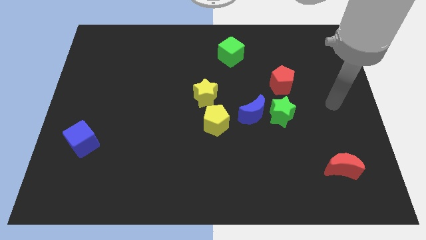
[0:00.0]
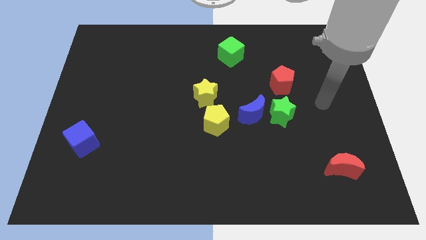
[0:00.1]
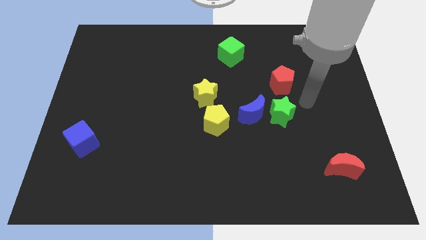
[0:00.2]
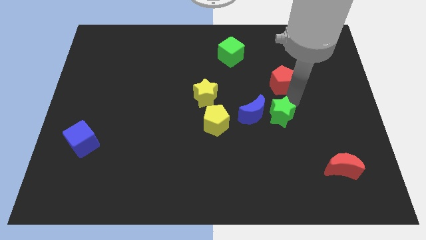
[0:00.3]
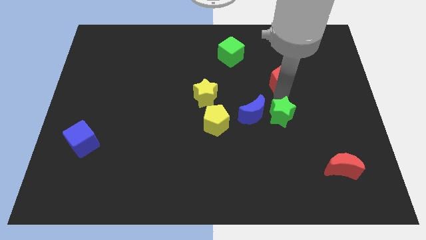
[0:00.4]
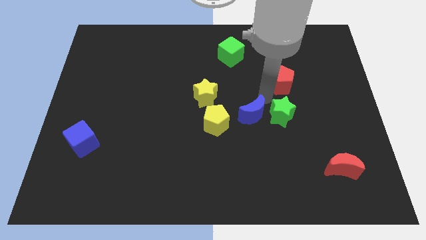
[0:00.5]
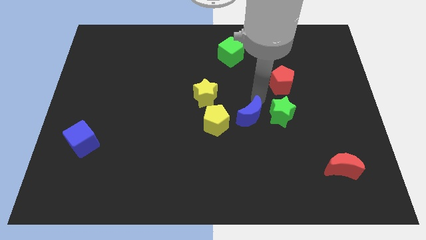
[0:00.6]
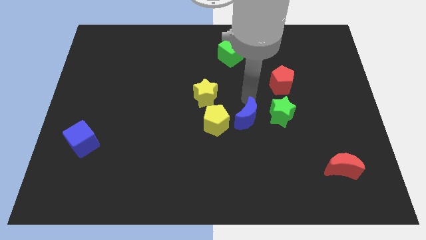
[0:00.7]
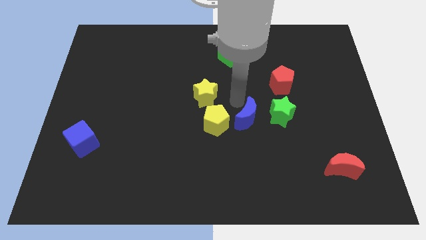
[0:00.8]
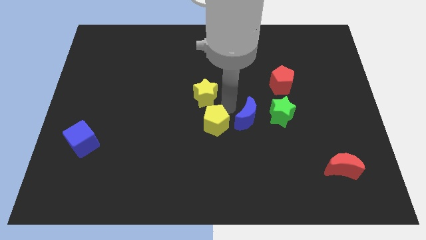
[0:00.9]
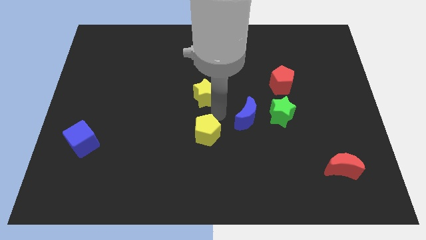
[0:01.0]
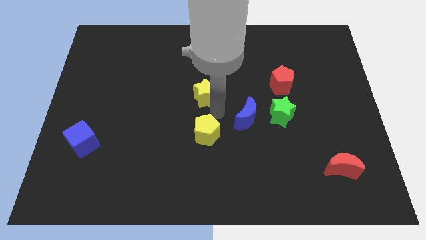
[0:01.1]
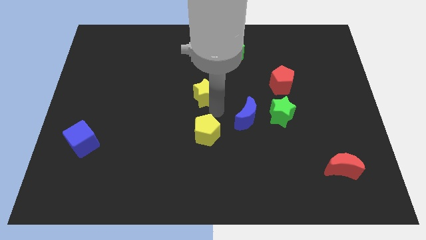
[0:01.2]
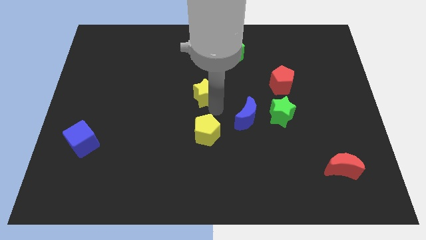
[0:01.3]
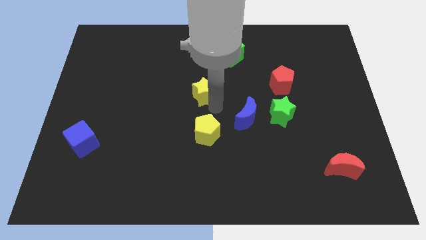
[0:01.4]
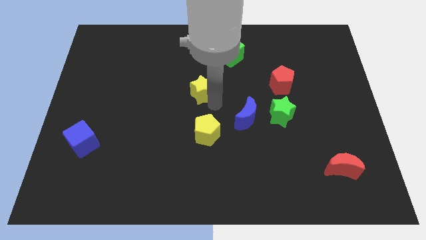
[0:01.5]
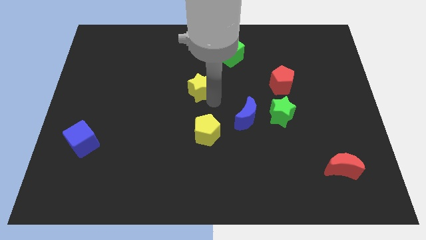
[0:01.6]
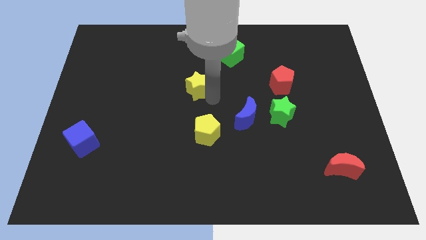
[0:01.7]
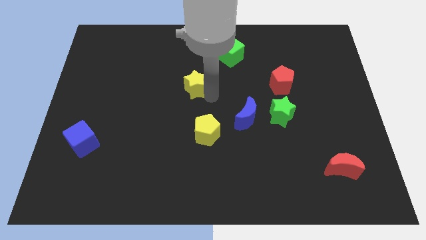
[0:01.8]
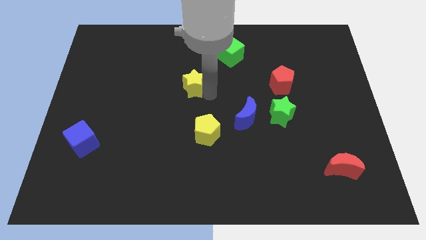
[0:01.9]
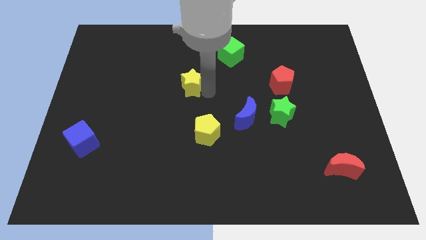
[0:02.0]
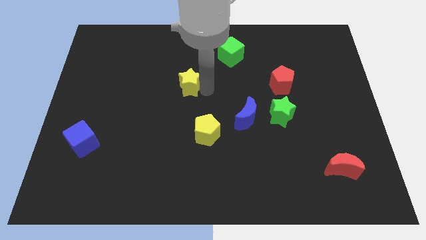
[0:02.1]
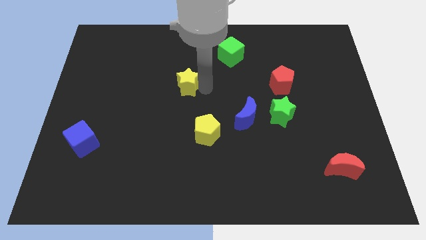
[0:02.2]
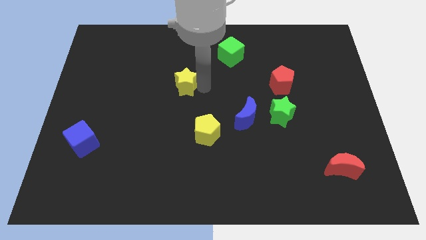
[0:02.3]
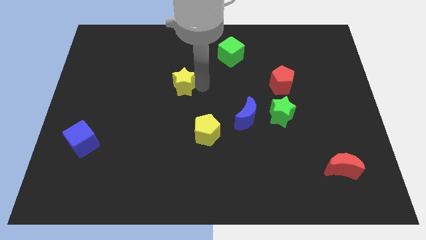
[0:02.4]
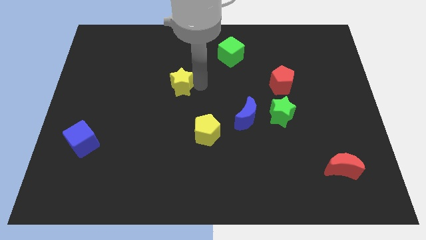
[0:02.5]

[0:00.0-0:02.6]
push the yellow star somewhat diagonally up and to the left

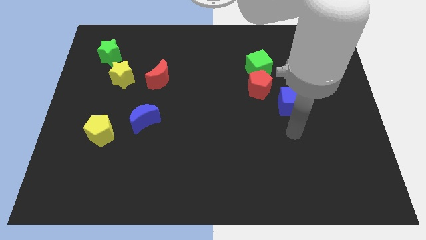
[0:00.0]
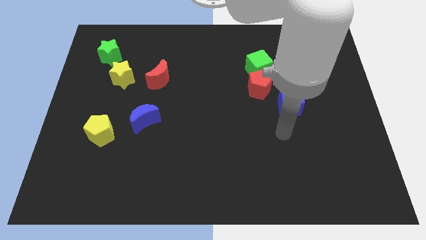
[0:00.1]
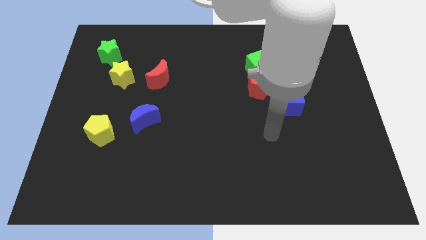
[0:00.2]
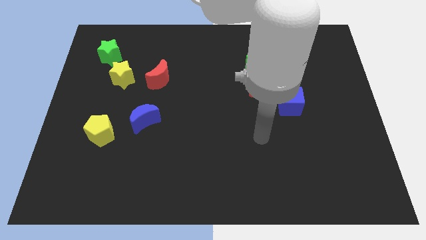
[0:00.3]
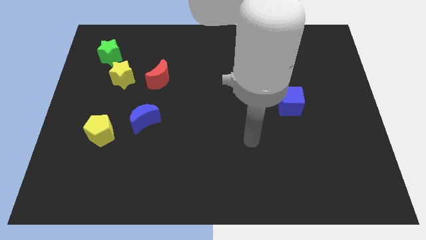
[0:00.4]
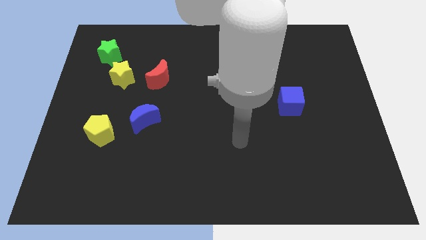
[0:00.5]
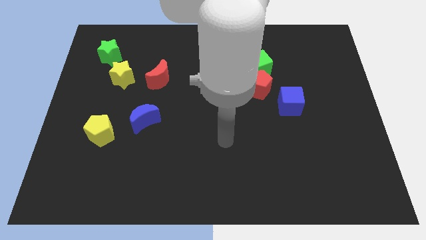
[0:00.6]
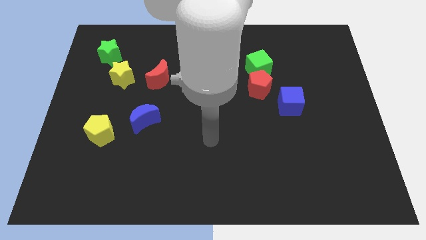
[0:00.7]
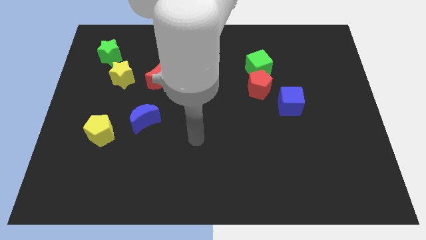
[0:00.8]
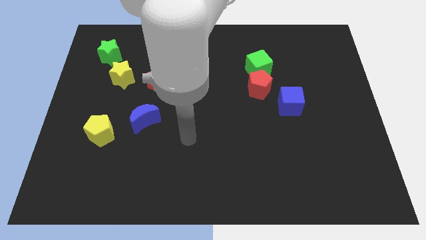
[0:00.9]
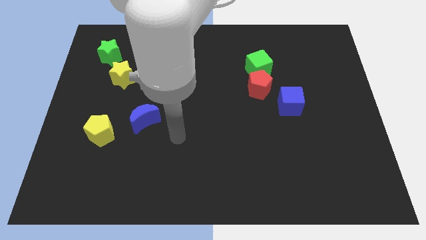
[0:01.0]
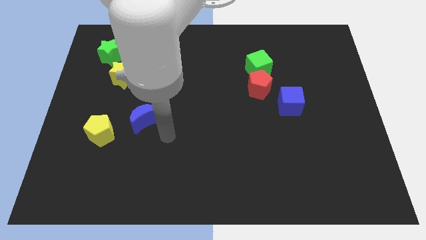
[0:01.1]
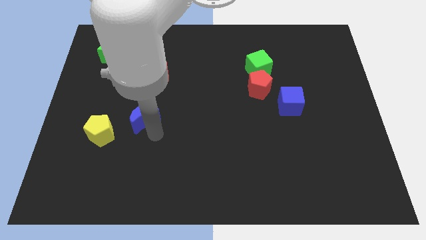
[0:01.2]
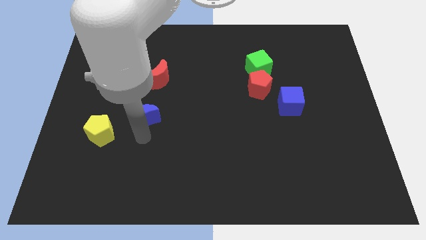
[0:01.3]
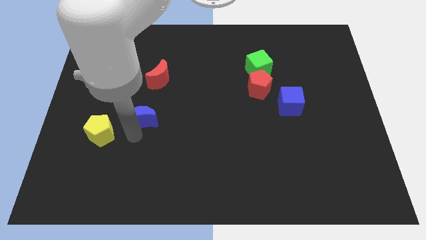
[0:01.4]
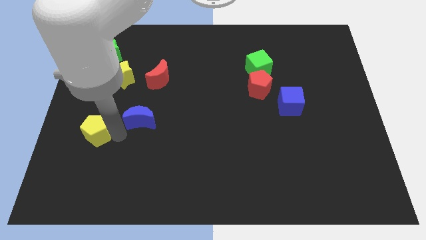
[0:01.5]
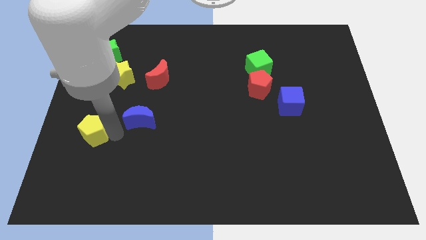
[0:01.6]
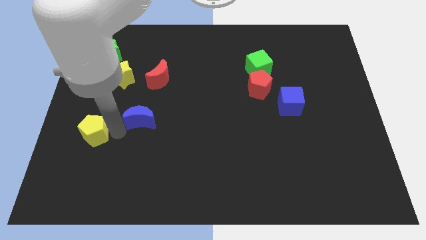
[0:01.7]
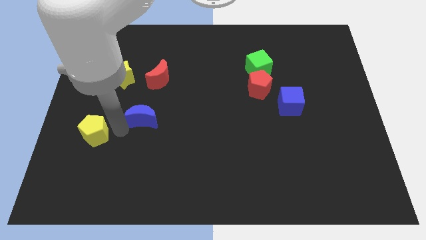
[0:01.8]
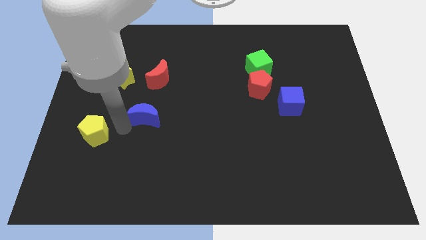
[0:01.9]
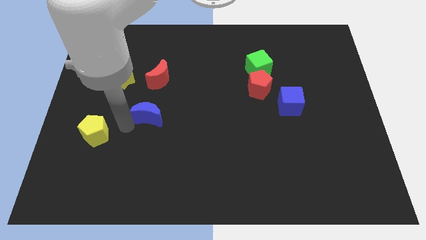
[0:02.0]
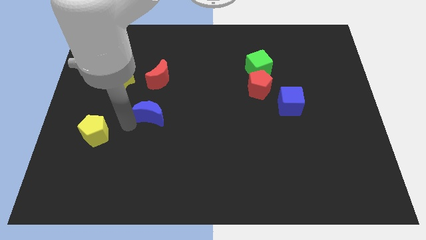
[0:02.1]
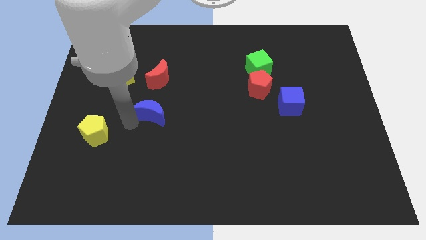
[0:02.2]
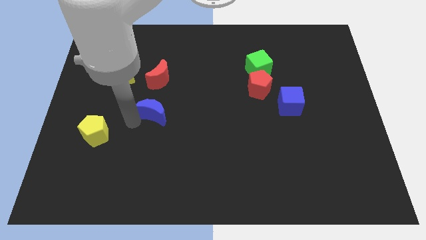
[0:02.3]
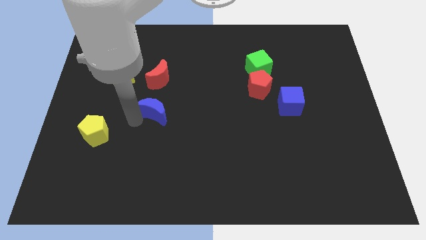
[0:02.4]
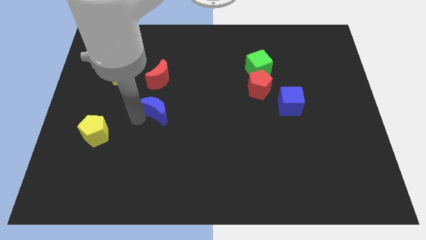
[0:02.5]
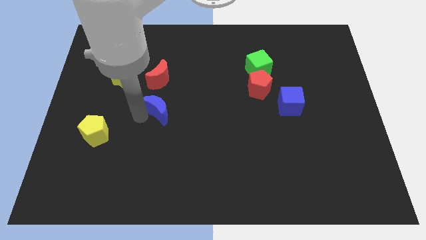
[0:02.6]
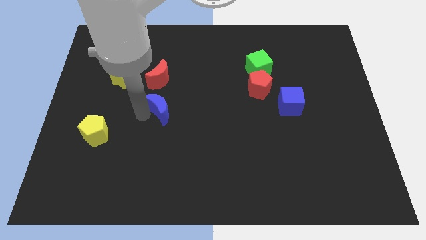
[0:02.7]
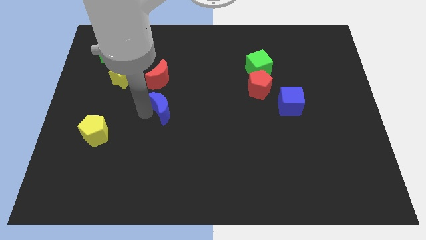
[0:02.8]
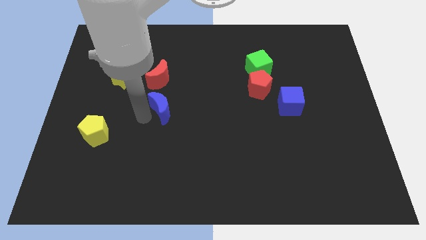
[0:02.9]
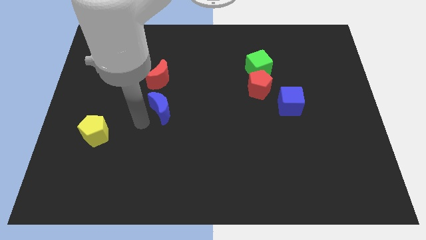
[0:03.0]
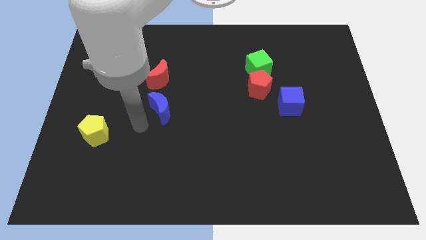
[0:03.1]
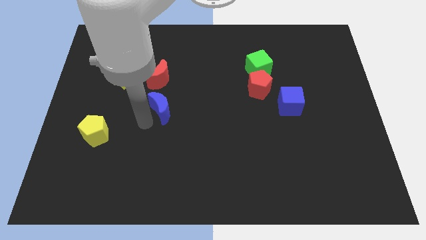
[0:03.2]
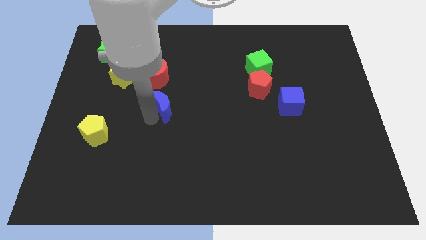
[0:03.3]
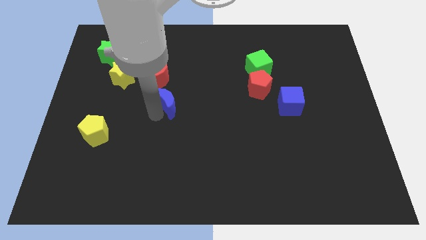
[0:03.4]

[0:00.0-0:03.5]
slightly move the blue moon diagonally up and to the right

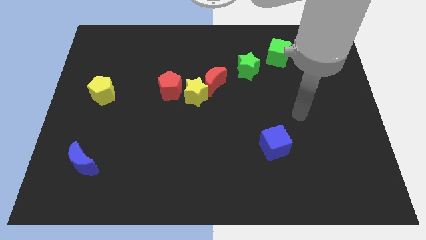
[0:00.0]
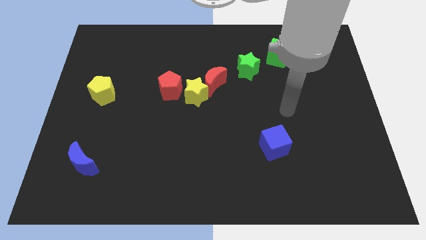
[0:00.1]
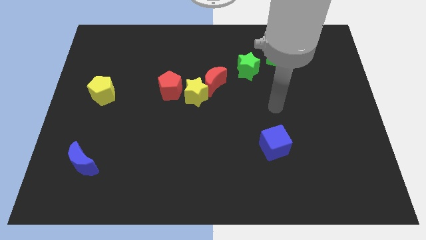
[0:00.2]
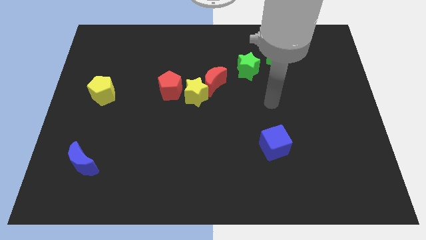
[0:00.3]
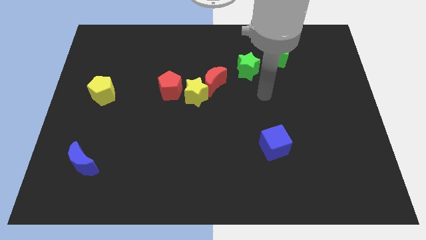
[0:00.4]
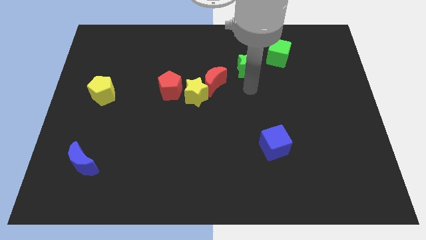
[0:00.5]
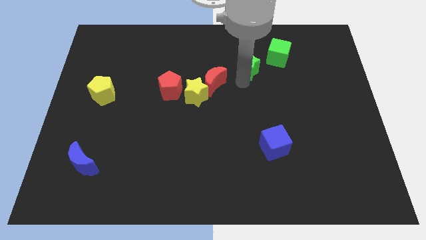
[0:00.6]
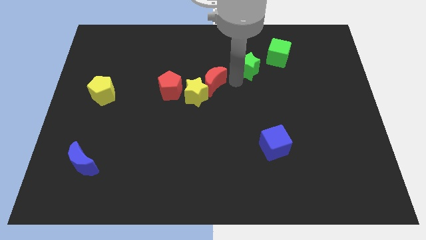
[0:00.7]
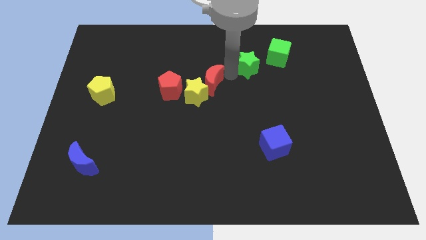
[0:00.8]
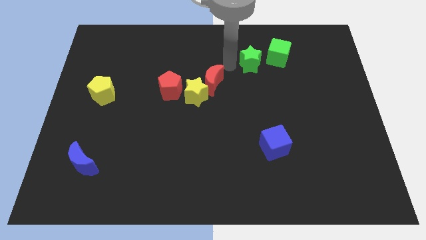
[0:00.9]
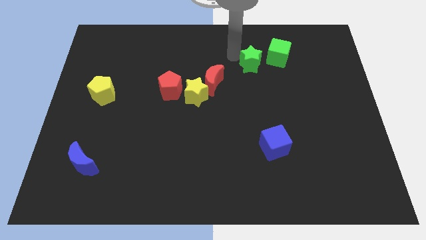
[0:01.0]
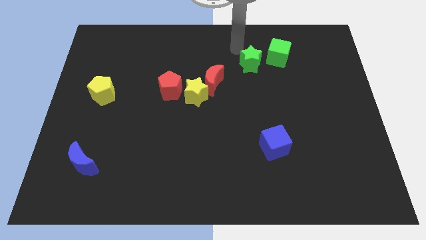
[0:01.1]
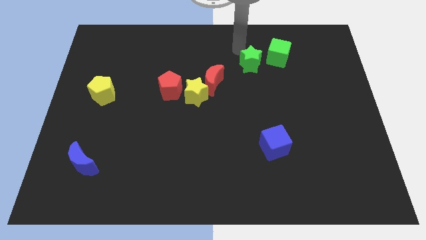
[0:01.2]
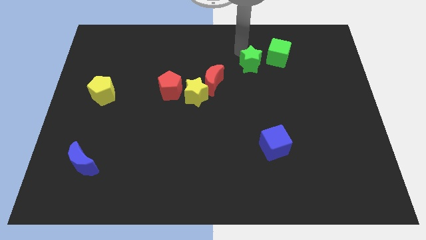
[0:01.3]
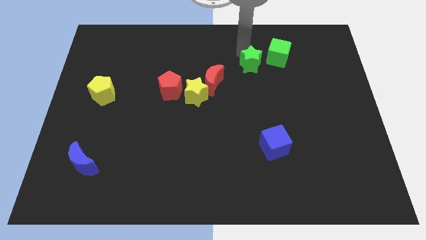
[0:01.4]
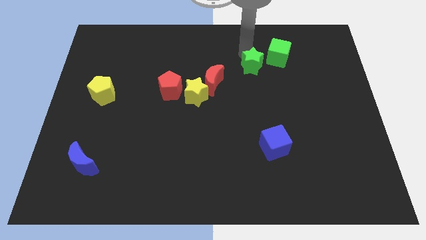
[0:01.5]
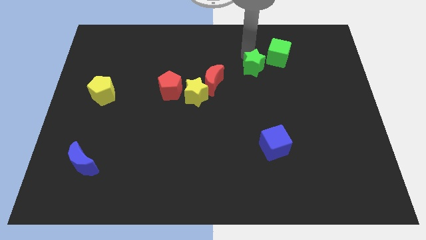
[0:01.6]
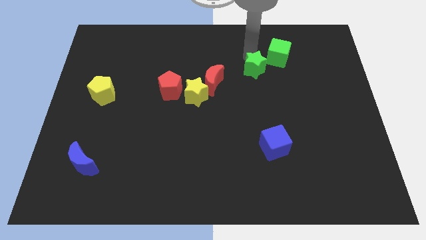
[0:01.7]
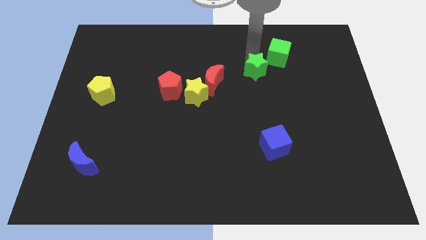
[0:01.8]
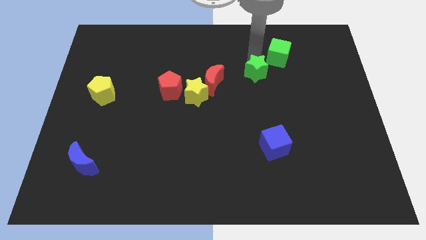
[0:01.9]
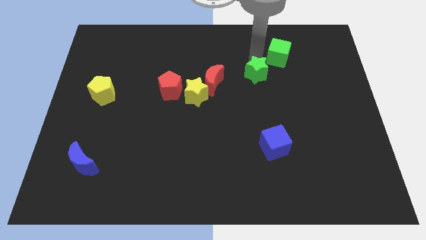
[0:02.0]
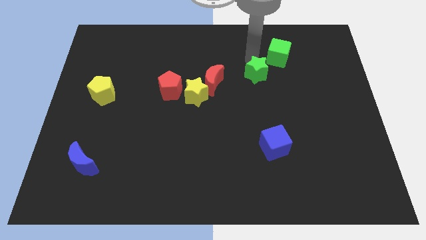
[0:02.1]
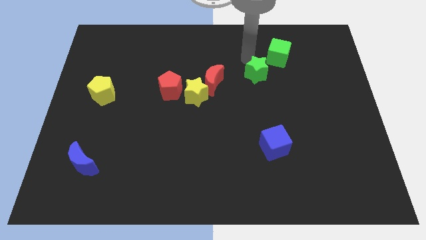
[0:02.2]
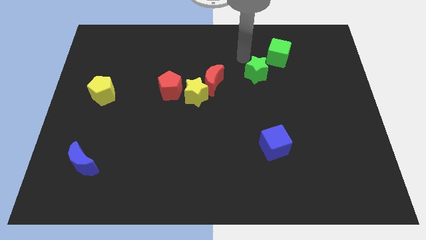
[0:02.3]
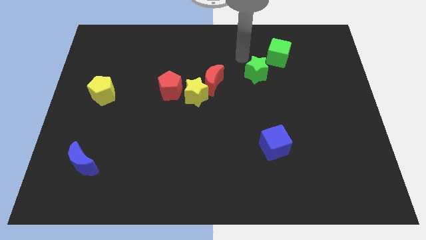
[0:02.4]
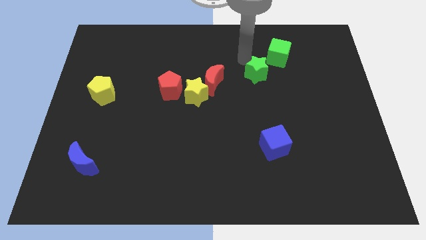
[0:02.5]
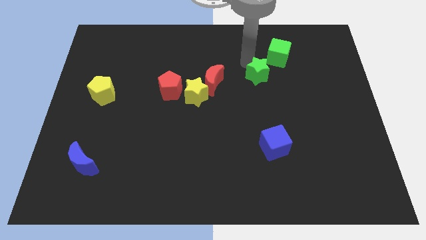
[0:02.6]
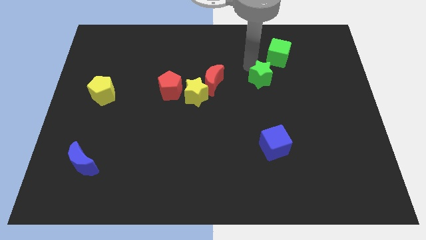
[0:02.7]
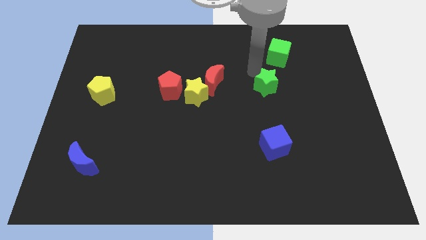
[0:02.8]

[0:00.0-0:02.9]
move the green star down and then right a little
